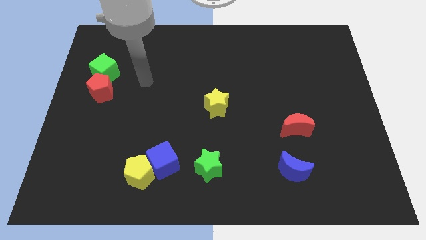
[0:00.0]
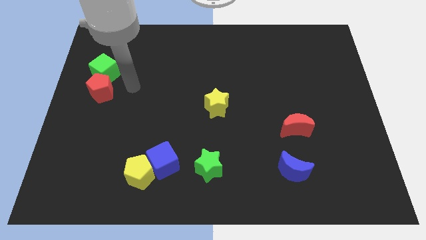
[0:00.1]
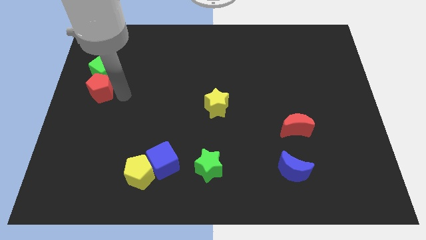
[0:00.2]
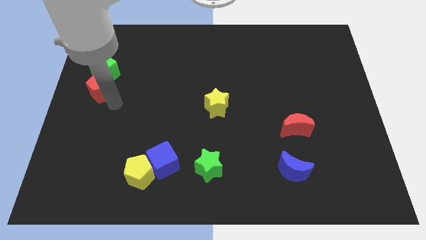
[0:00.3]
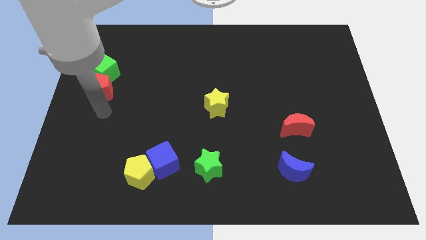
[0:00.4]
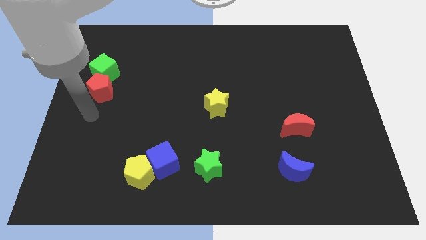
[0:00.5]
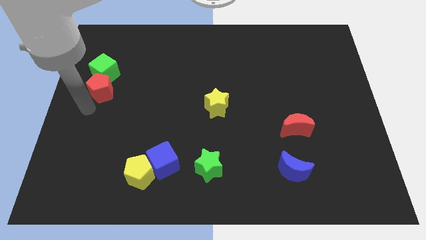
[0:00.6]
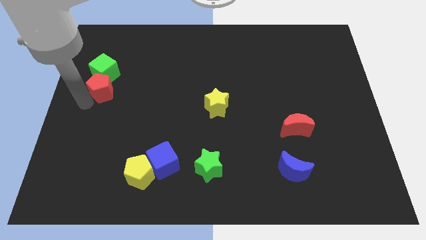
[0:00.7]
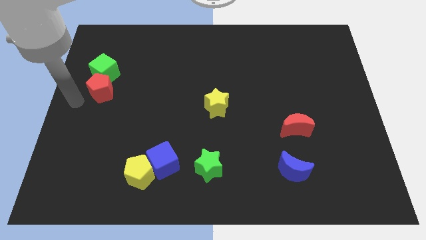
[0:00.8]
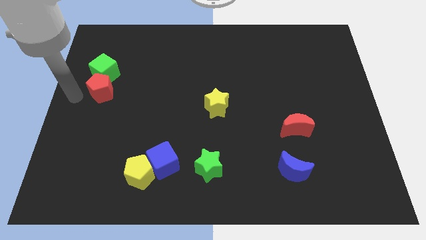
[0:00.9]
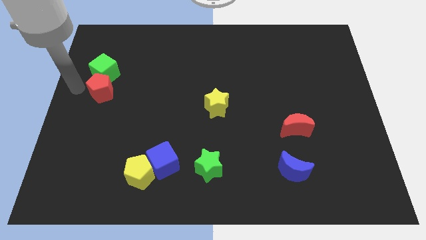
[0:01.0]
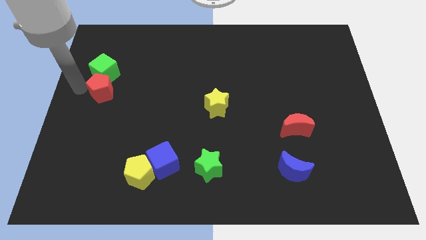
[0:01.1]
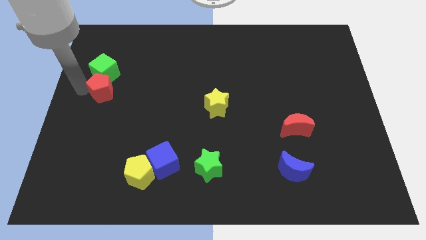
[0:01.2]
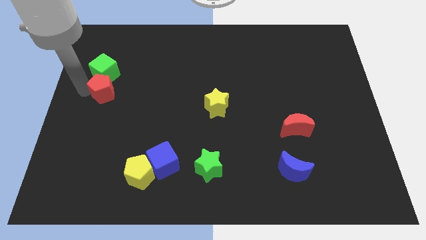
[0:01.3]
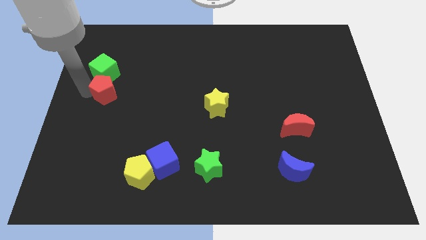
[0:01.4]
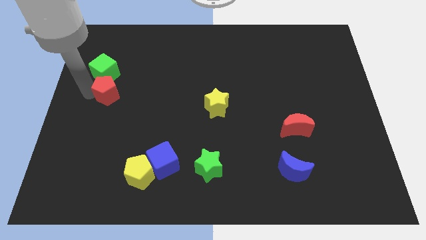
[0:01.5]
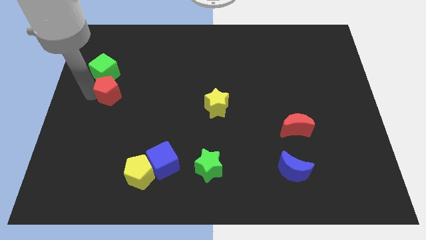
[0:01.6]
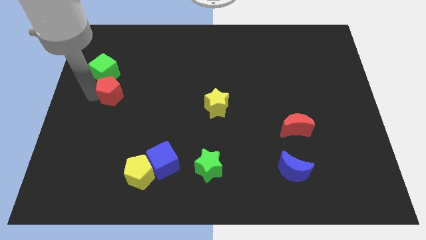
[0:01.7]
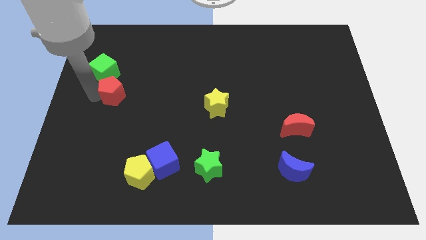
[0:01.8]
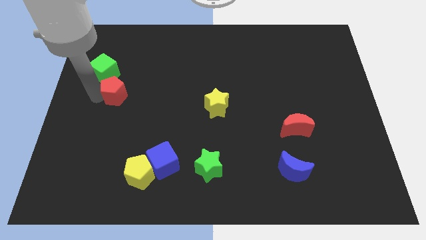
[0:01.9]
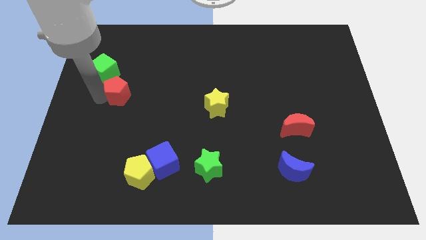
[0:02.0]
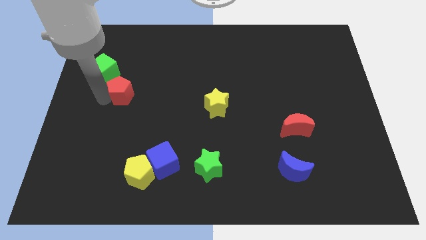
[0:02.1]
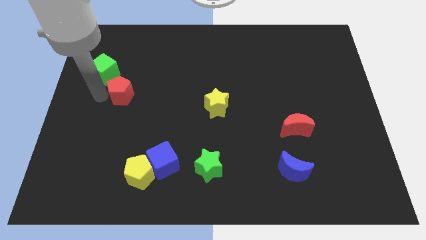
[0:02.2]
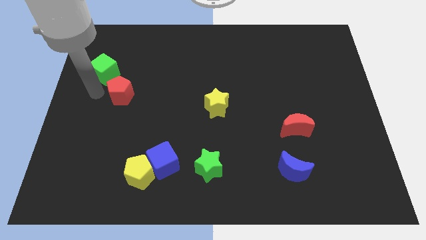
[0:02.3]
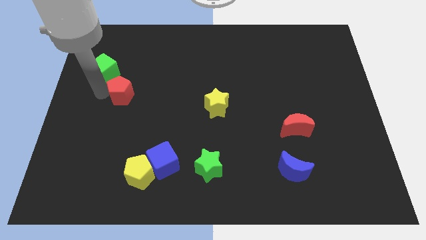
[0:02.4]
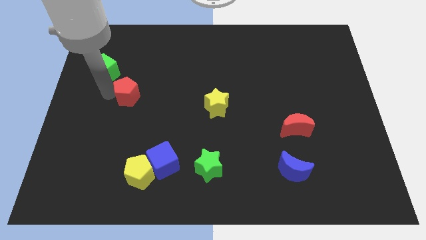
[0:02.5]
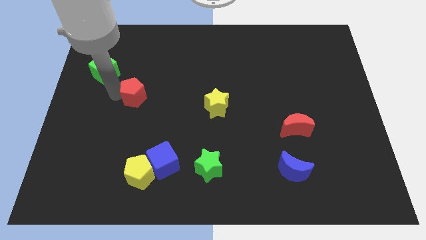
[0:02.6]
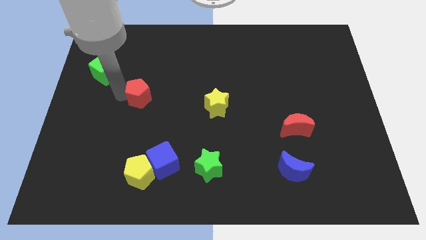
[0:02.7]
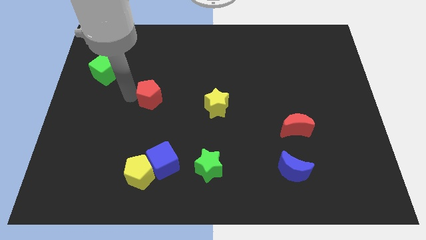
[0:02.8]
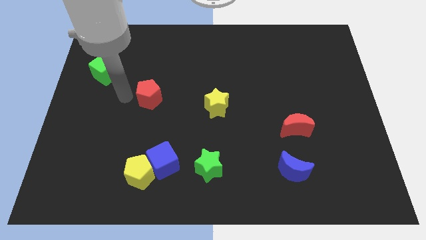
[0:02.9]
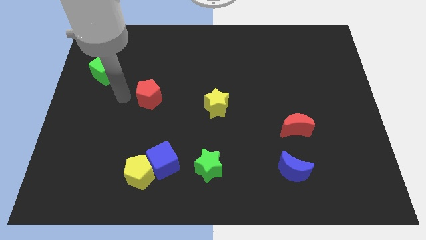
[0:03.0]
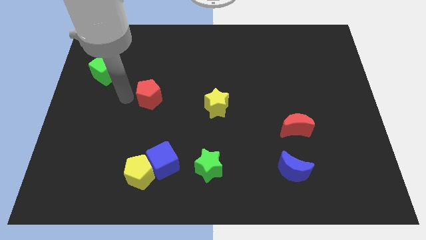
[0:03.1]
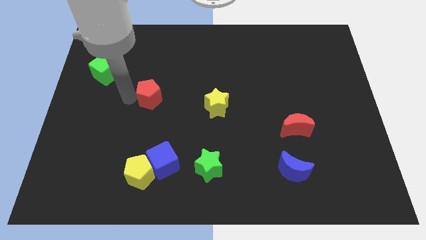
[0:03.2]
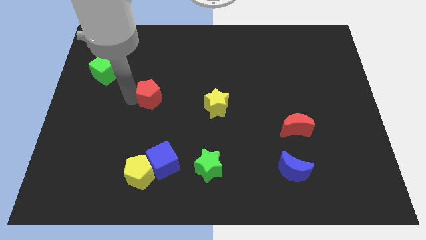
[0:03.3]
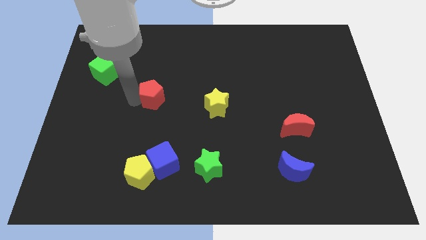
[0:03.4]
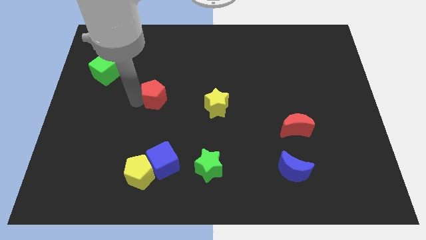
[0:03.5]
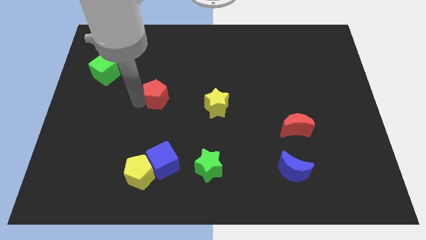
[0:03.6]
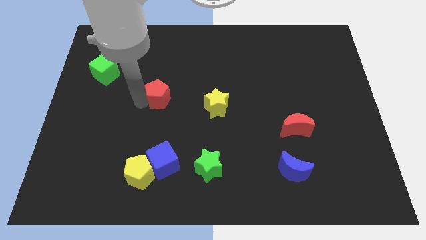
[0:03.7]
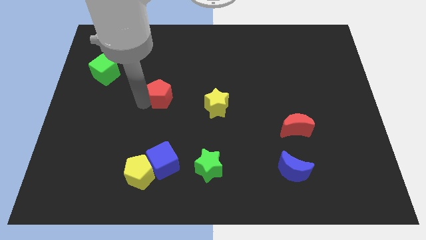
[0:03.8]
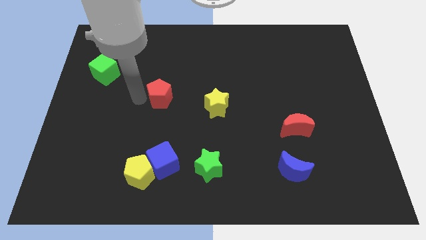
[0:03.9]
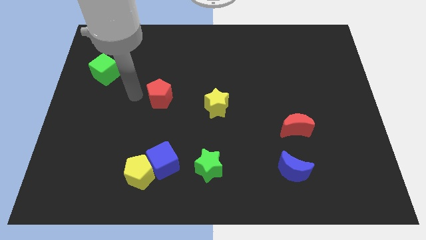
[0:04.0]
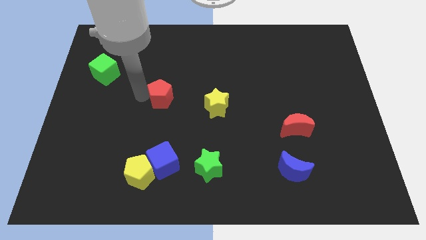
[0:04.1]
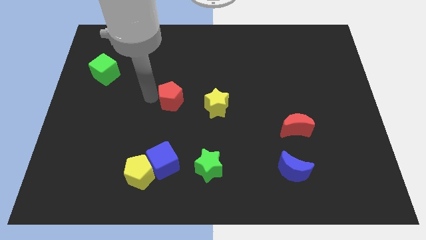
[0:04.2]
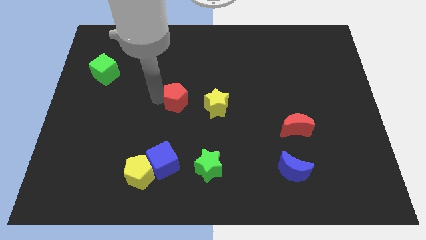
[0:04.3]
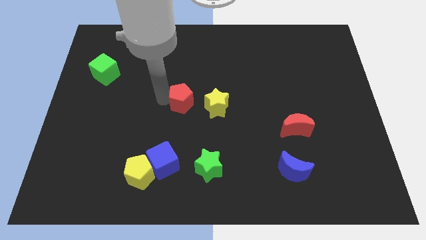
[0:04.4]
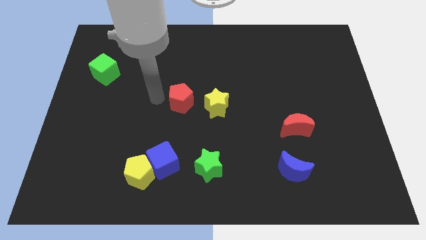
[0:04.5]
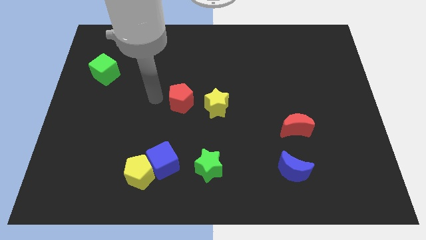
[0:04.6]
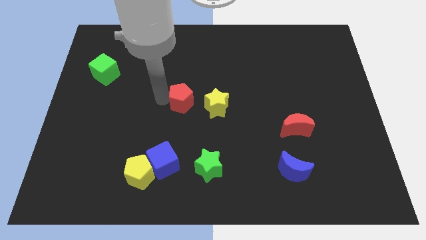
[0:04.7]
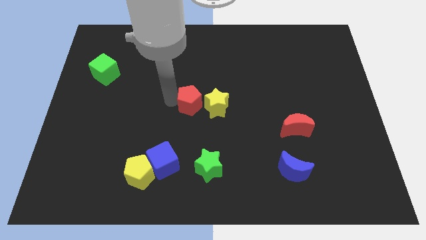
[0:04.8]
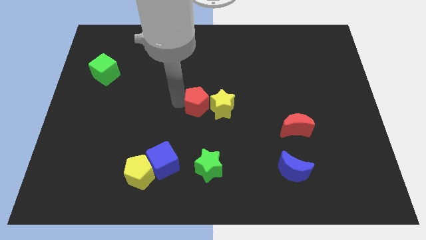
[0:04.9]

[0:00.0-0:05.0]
move the red pentagon to the yellow star

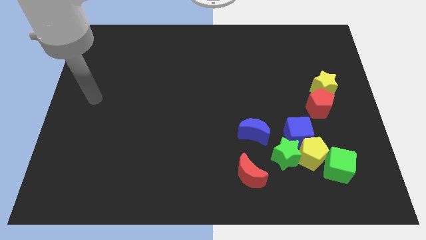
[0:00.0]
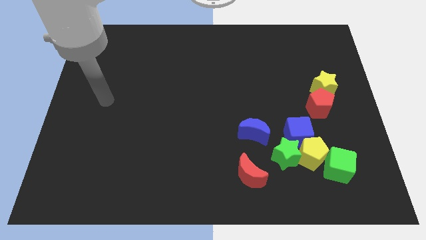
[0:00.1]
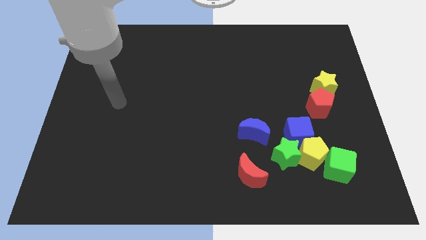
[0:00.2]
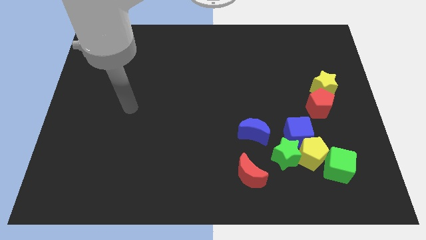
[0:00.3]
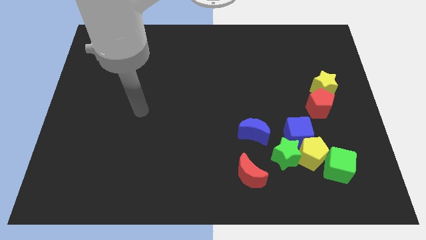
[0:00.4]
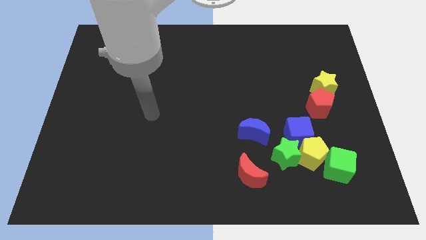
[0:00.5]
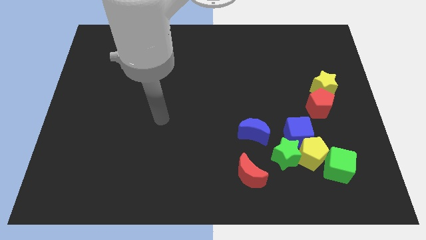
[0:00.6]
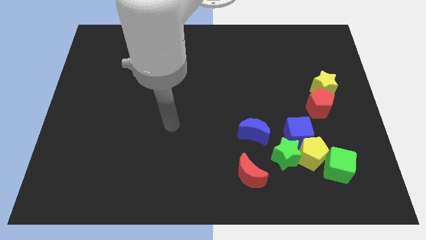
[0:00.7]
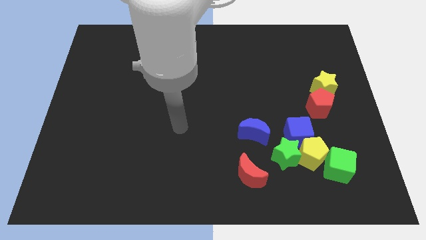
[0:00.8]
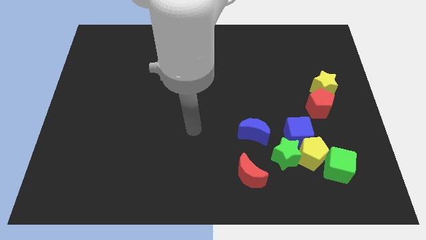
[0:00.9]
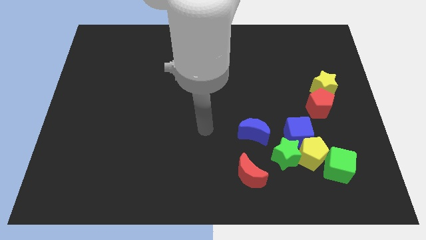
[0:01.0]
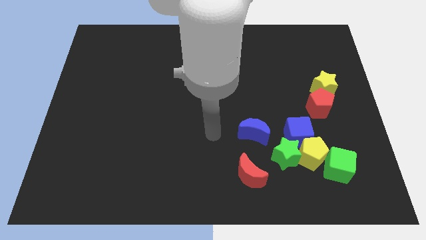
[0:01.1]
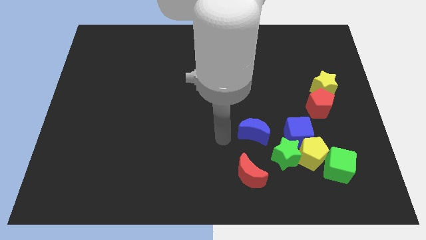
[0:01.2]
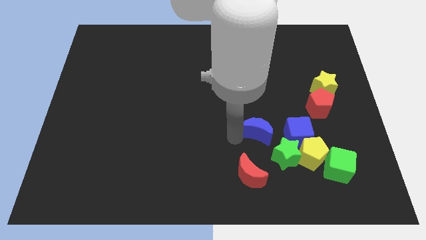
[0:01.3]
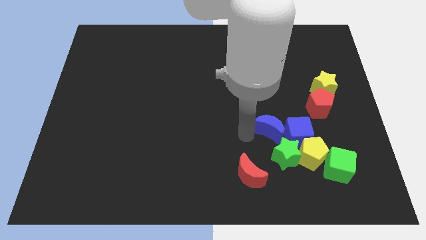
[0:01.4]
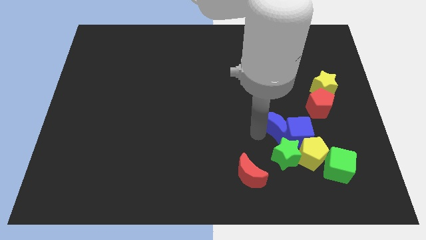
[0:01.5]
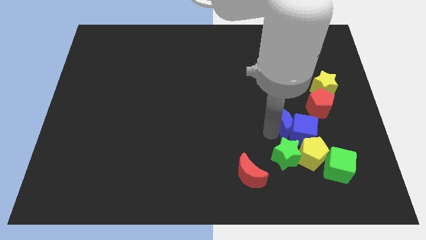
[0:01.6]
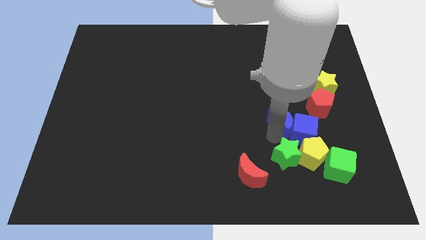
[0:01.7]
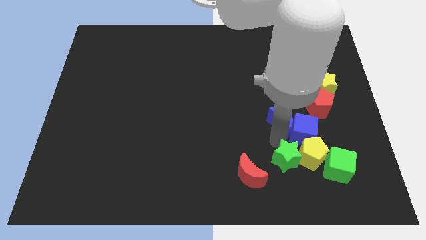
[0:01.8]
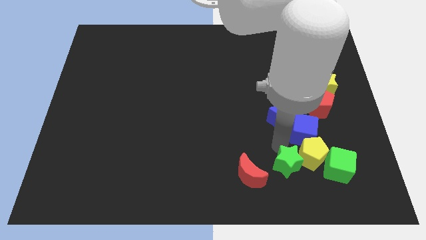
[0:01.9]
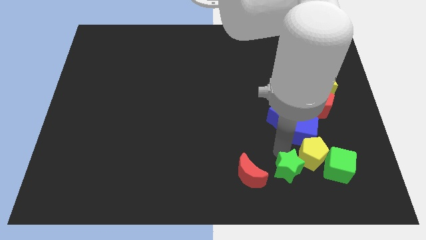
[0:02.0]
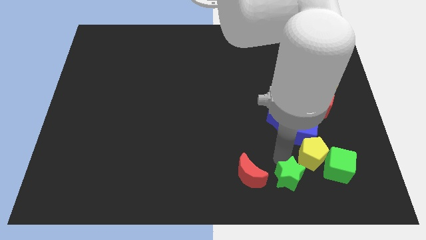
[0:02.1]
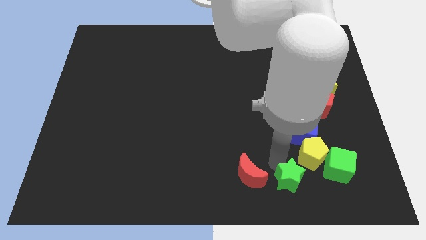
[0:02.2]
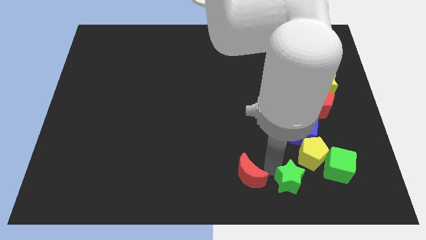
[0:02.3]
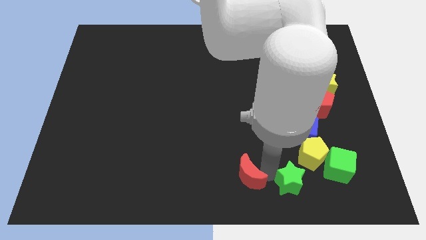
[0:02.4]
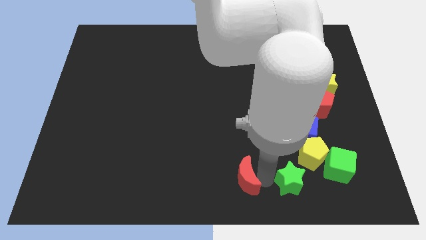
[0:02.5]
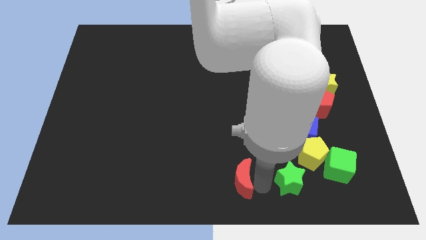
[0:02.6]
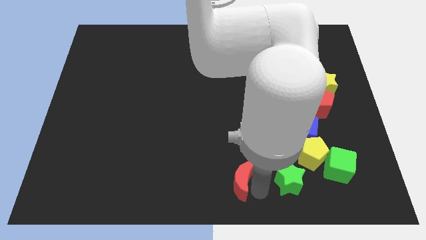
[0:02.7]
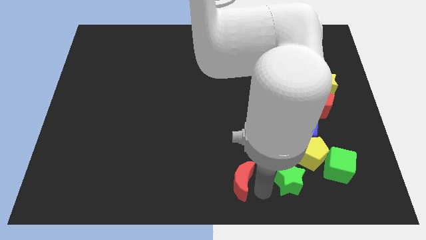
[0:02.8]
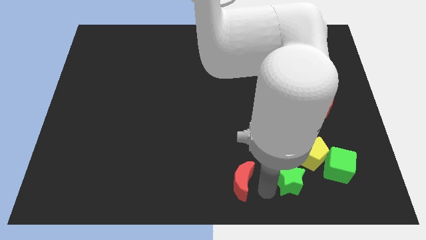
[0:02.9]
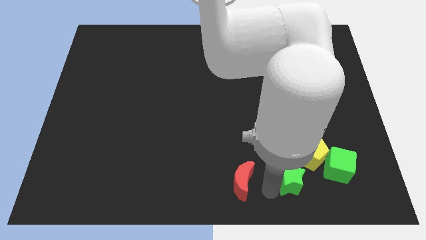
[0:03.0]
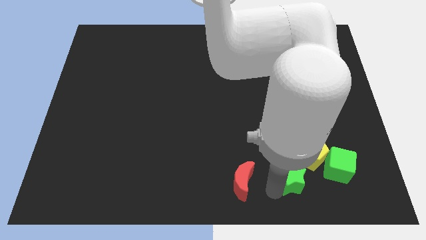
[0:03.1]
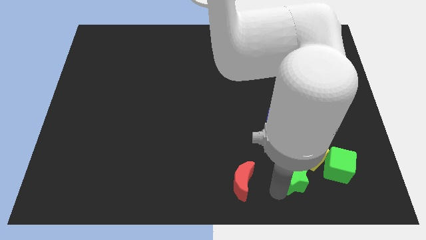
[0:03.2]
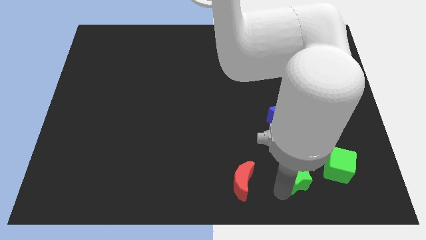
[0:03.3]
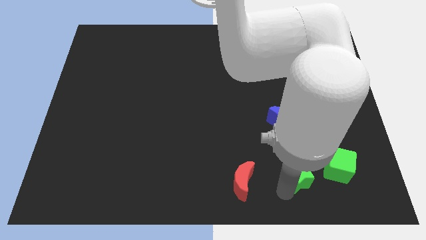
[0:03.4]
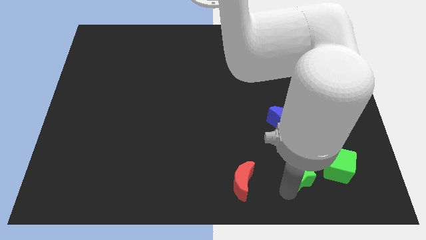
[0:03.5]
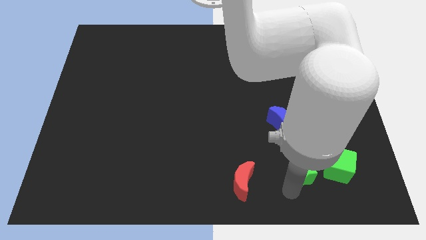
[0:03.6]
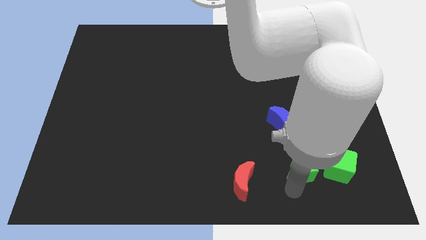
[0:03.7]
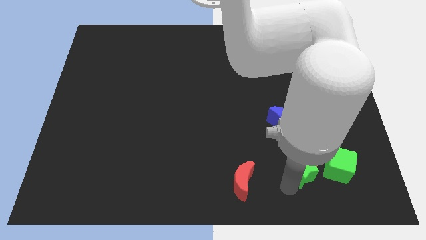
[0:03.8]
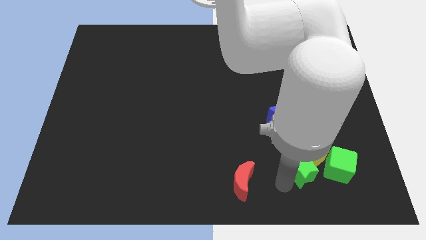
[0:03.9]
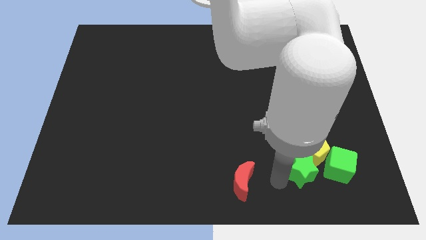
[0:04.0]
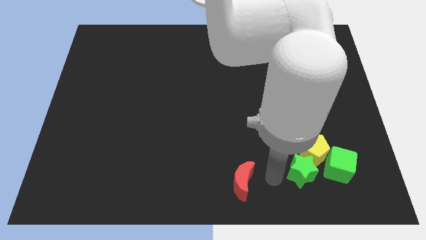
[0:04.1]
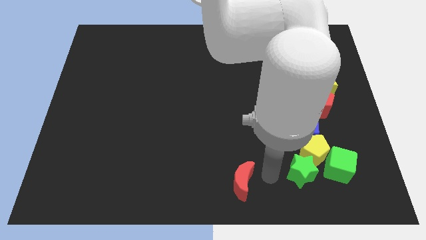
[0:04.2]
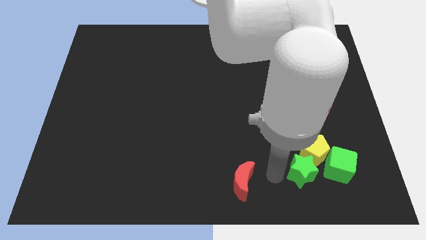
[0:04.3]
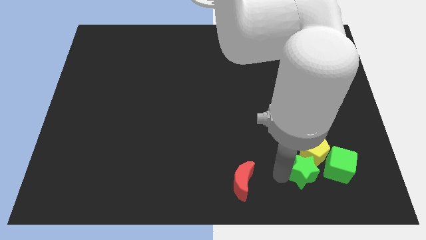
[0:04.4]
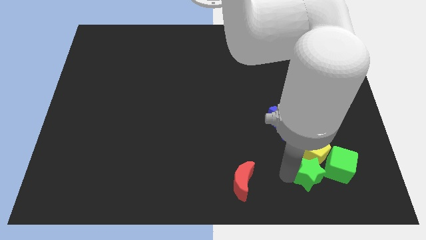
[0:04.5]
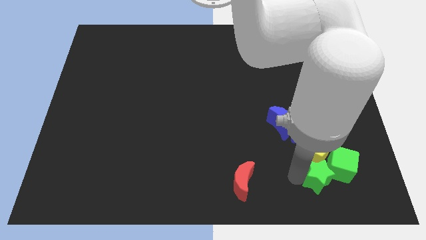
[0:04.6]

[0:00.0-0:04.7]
slide the green star close to the green cube
